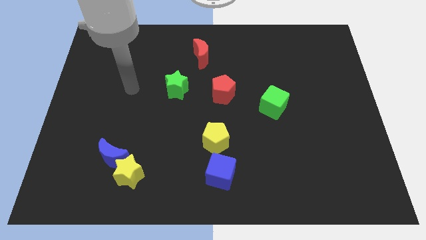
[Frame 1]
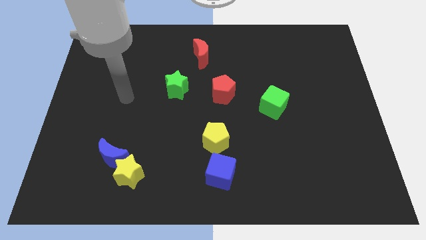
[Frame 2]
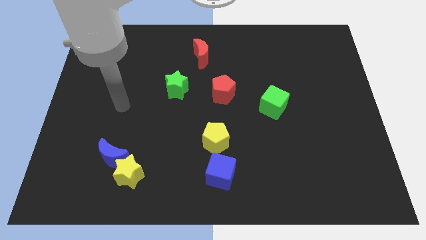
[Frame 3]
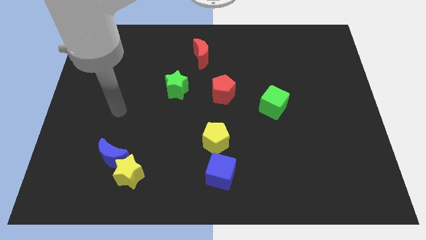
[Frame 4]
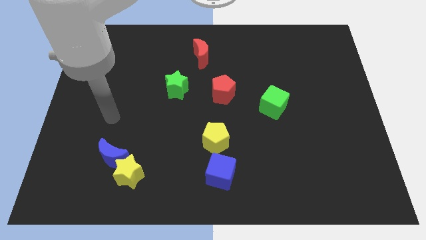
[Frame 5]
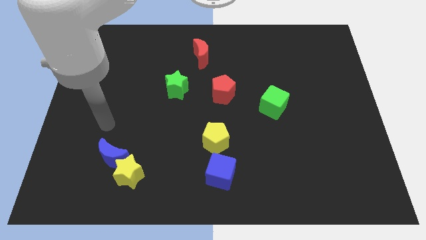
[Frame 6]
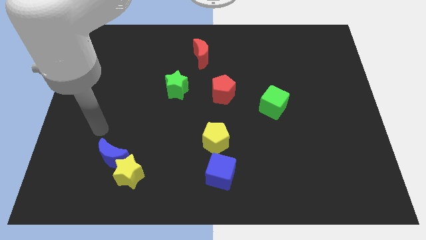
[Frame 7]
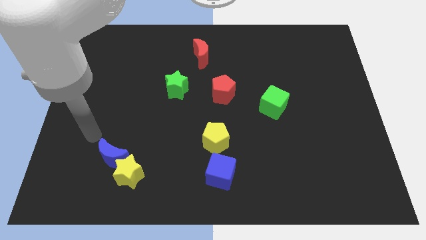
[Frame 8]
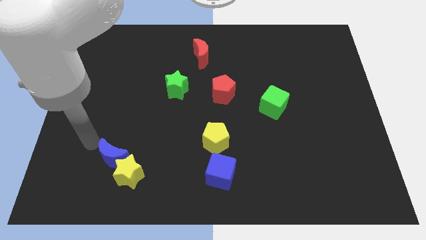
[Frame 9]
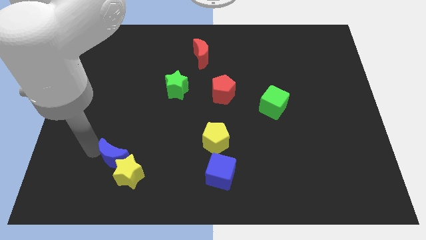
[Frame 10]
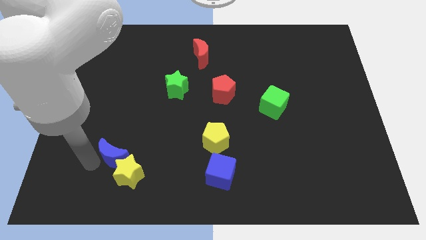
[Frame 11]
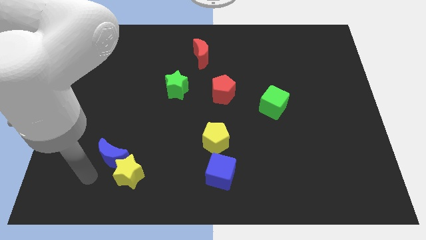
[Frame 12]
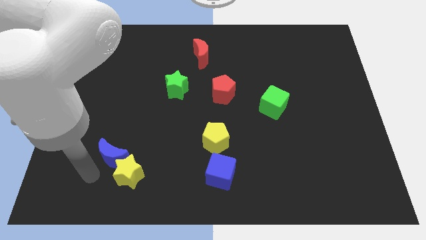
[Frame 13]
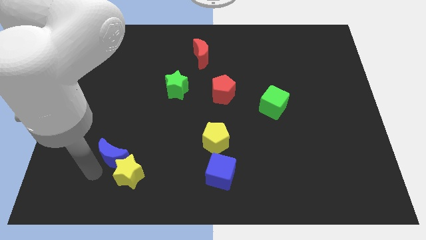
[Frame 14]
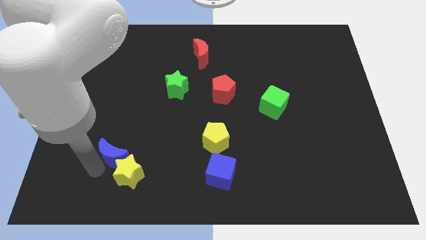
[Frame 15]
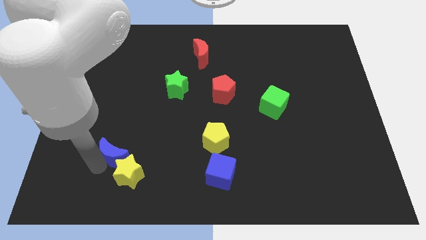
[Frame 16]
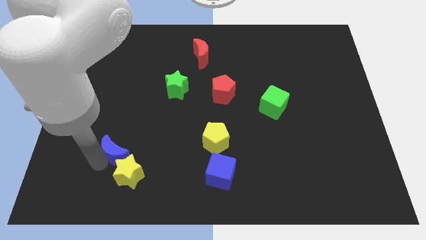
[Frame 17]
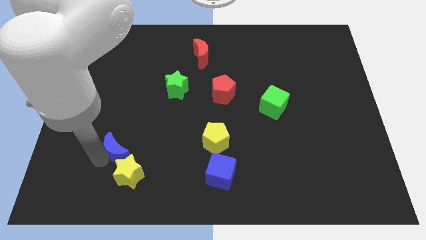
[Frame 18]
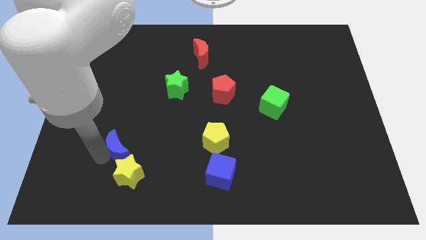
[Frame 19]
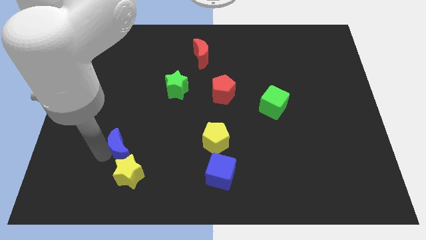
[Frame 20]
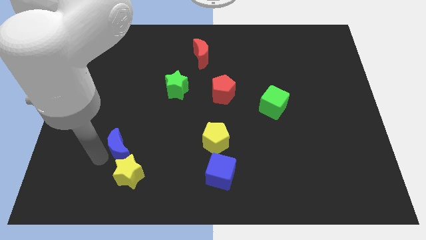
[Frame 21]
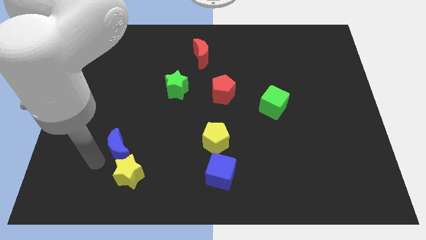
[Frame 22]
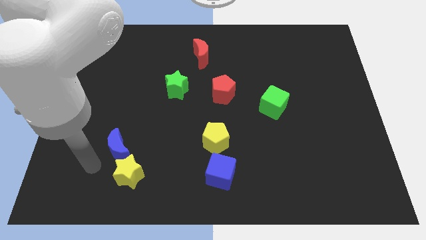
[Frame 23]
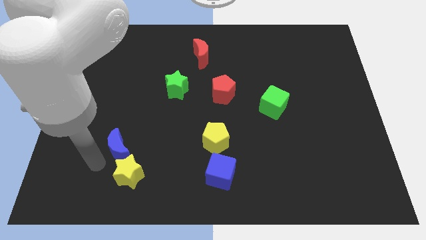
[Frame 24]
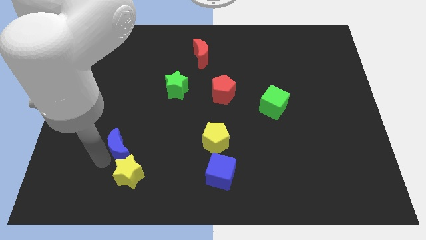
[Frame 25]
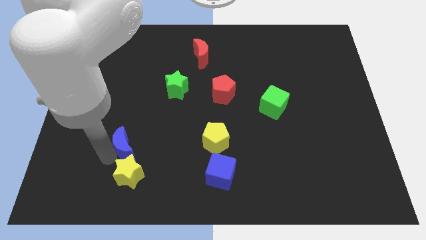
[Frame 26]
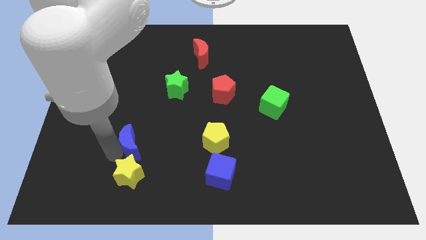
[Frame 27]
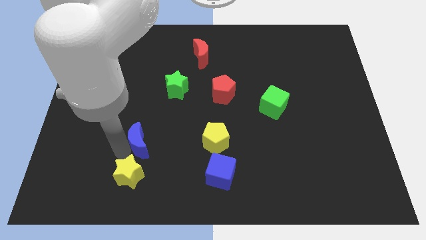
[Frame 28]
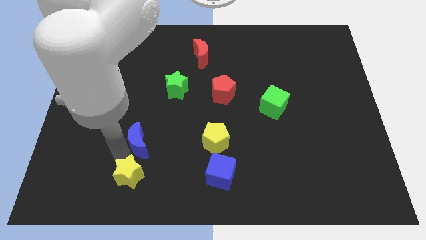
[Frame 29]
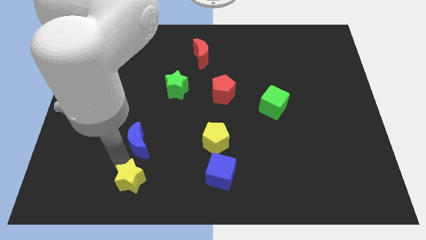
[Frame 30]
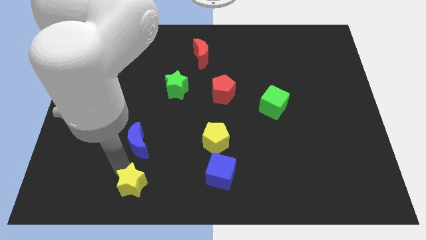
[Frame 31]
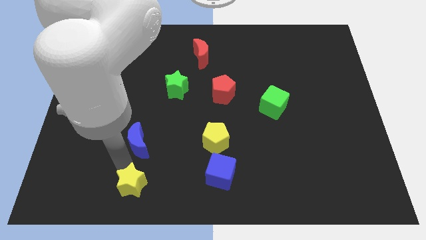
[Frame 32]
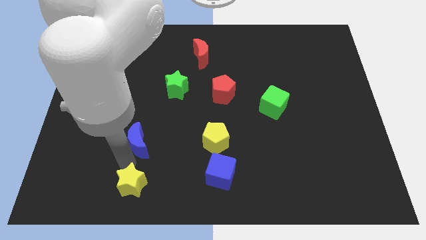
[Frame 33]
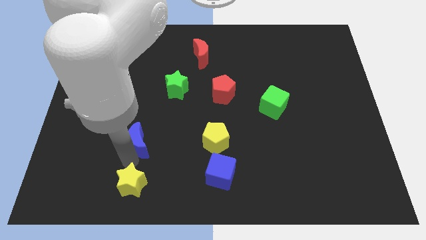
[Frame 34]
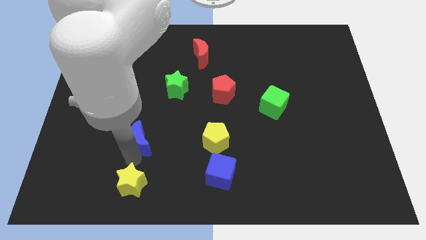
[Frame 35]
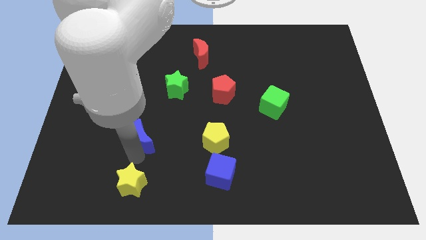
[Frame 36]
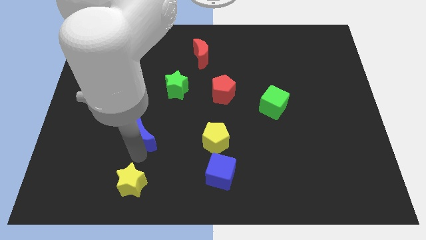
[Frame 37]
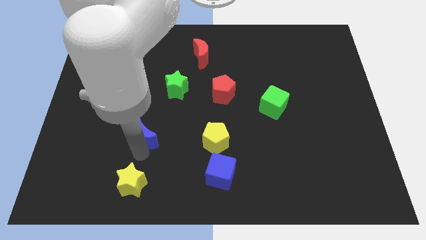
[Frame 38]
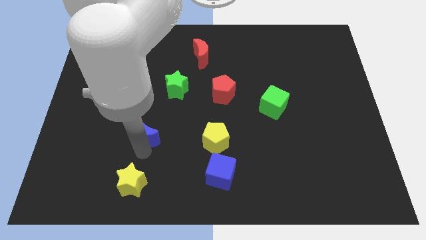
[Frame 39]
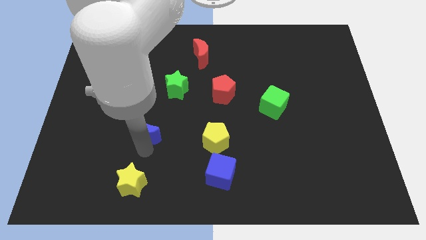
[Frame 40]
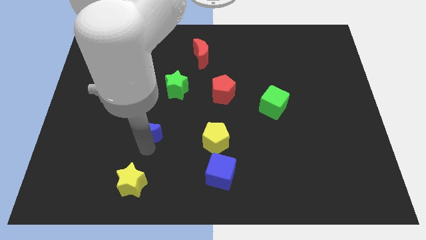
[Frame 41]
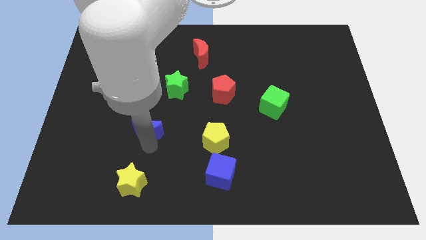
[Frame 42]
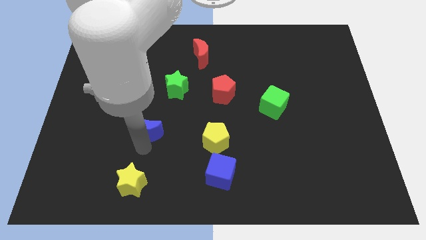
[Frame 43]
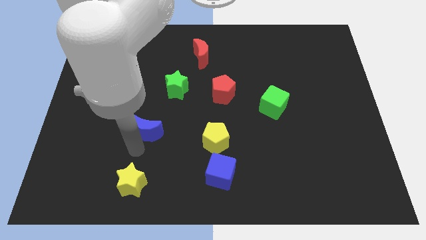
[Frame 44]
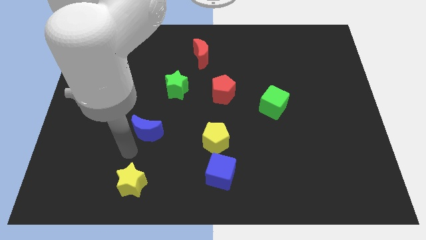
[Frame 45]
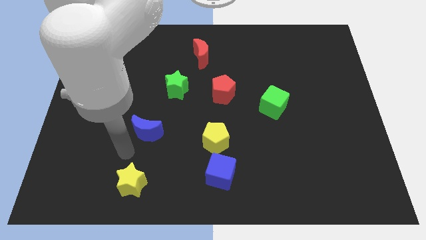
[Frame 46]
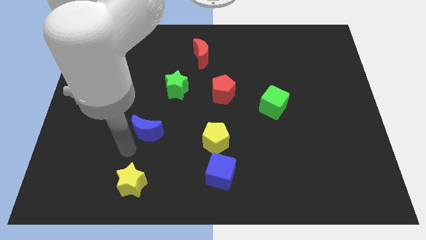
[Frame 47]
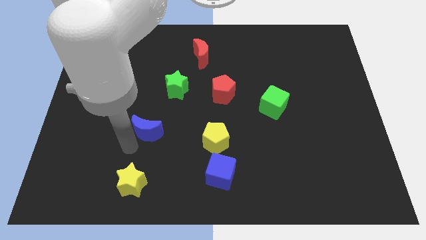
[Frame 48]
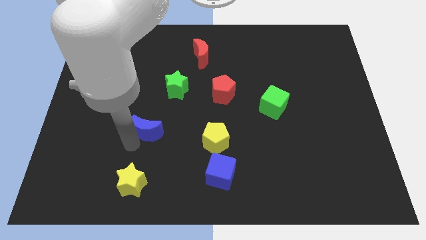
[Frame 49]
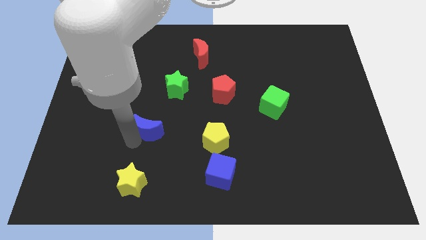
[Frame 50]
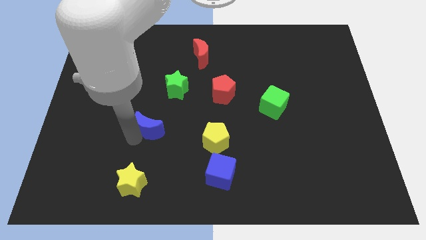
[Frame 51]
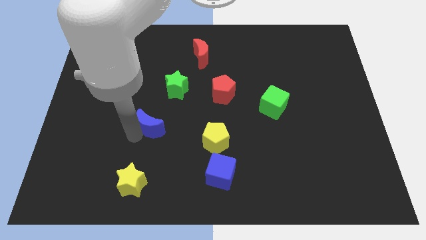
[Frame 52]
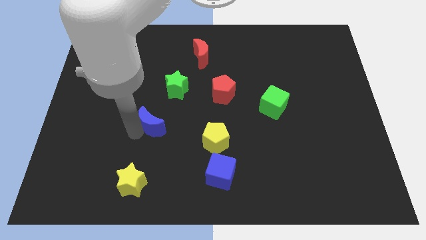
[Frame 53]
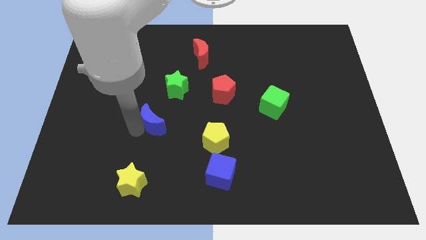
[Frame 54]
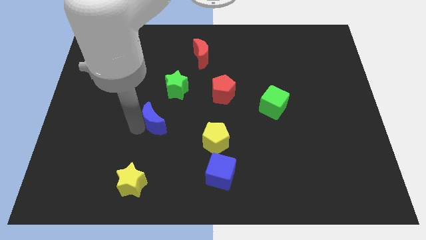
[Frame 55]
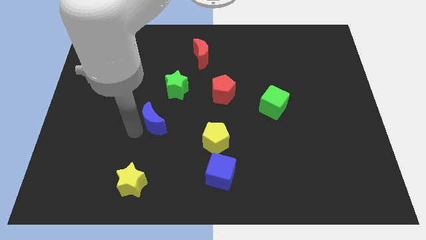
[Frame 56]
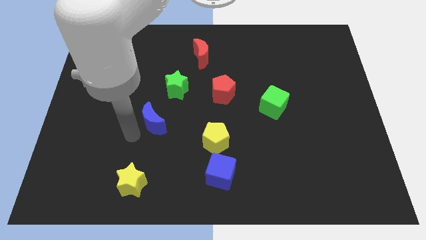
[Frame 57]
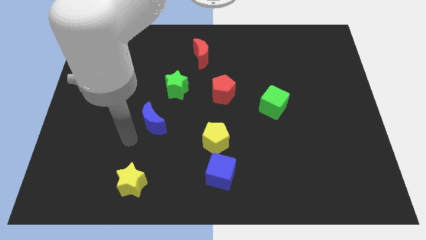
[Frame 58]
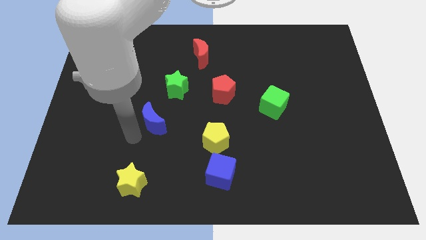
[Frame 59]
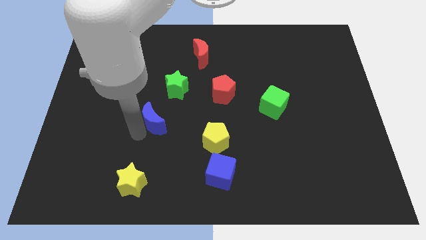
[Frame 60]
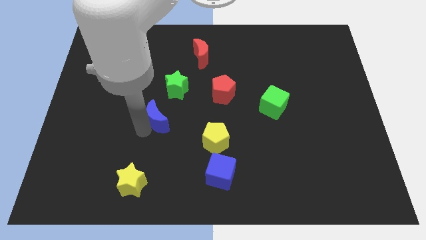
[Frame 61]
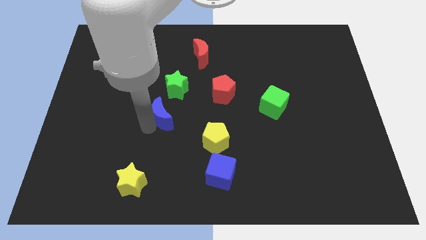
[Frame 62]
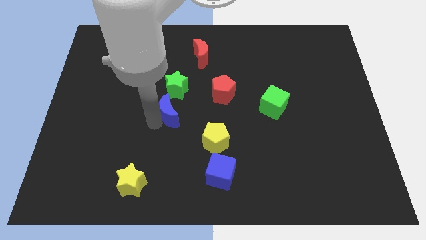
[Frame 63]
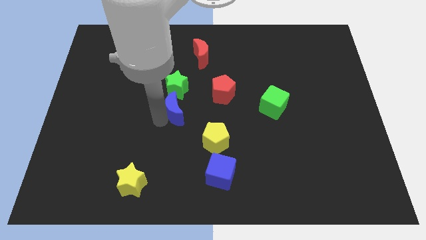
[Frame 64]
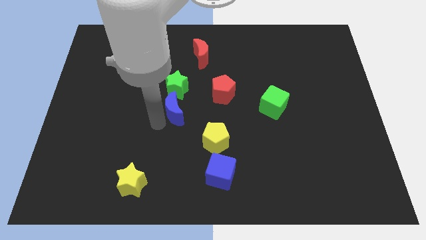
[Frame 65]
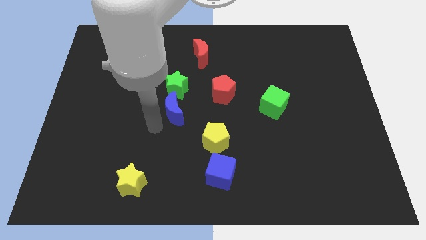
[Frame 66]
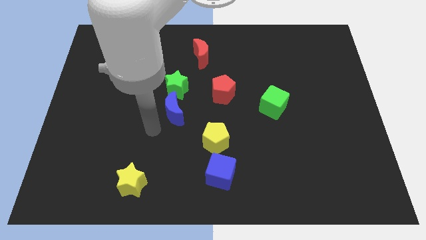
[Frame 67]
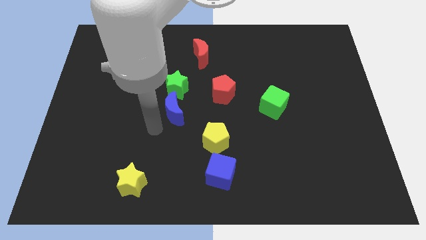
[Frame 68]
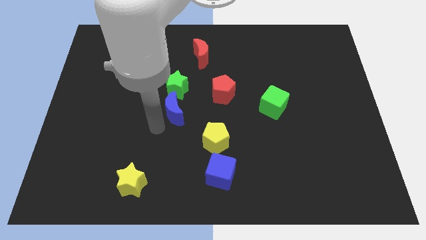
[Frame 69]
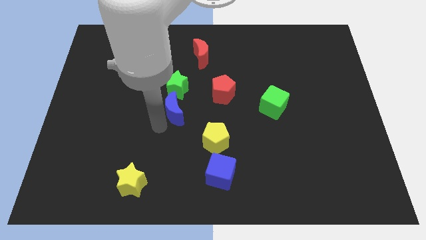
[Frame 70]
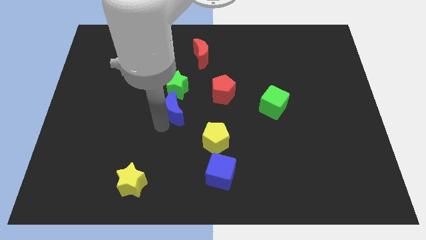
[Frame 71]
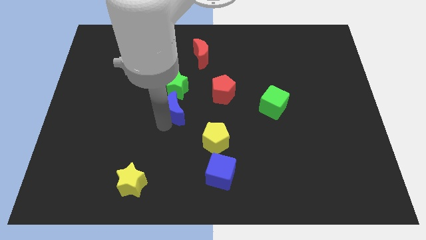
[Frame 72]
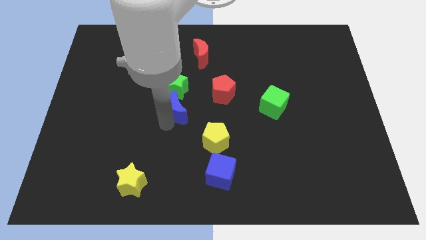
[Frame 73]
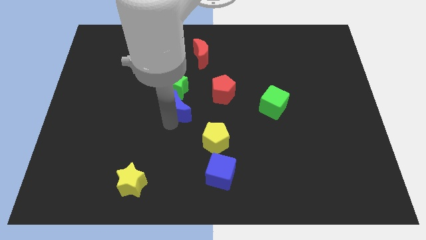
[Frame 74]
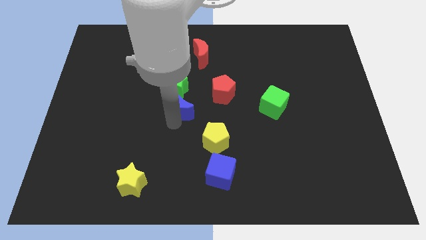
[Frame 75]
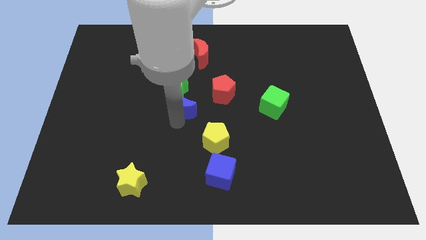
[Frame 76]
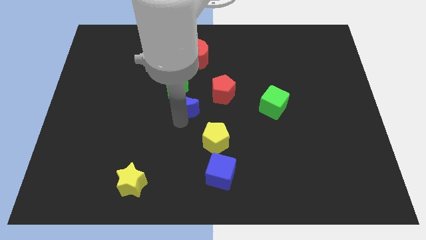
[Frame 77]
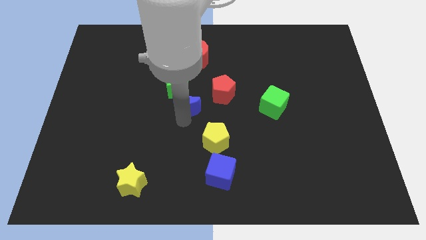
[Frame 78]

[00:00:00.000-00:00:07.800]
move the blue moon diagonally up and to the right

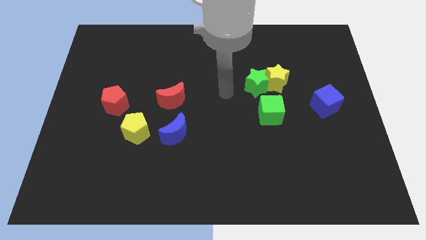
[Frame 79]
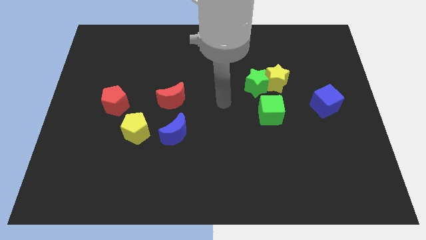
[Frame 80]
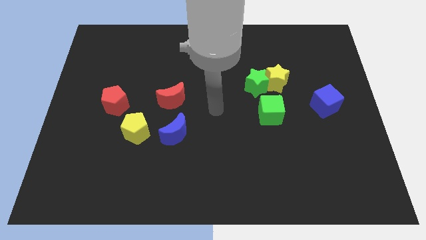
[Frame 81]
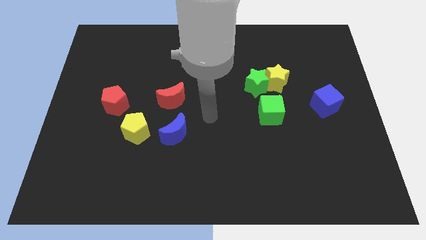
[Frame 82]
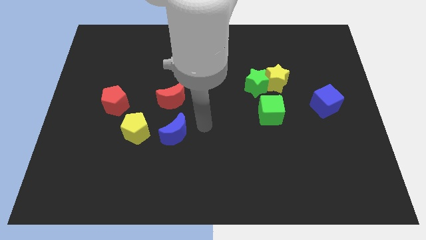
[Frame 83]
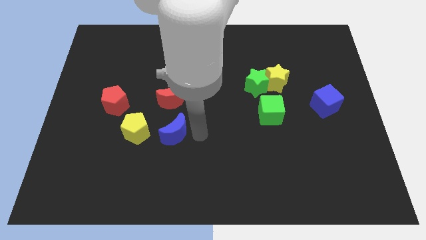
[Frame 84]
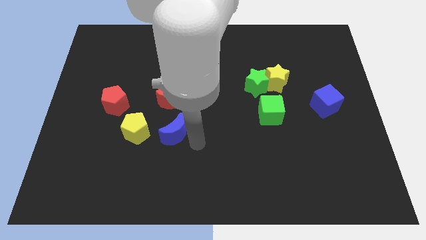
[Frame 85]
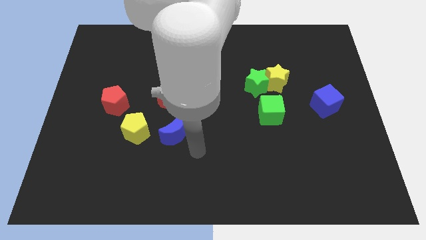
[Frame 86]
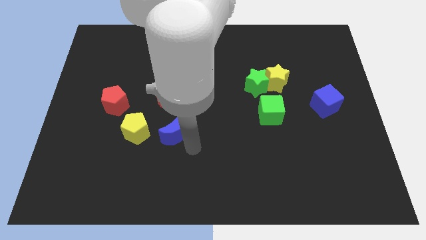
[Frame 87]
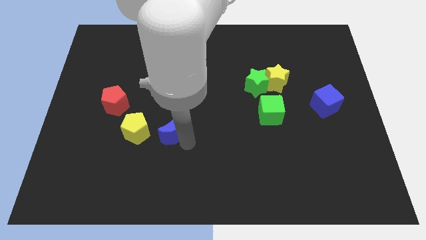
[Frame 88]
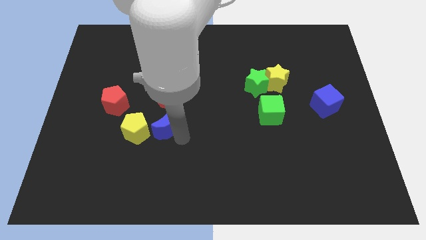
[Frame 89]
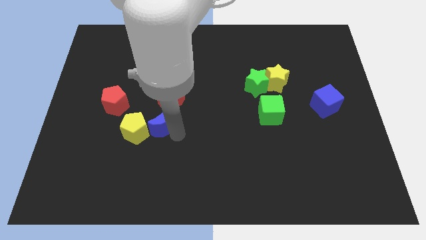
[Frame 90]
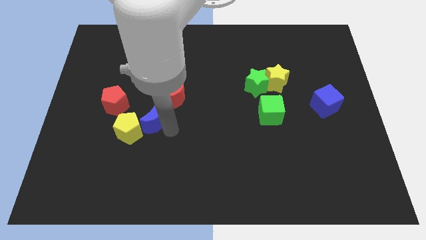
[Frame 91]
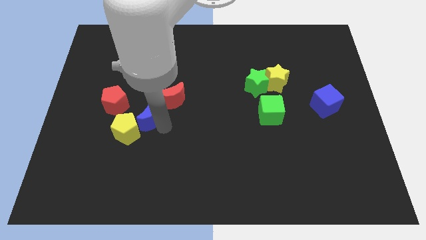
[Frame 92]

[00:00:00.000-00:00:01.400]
slightly move the blue moon diagonally up and to the left
